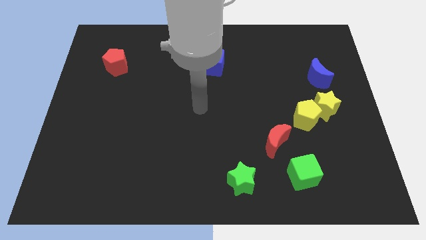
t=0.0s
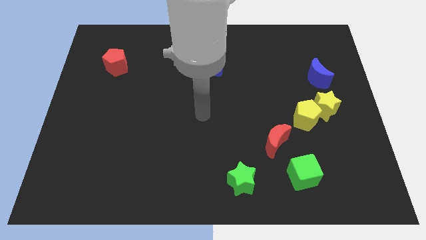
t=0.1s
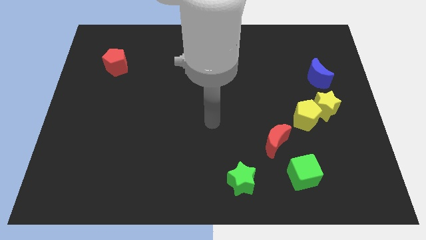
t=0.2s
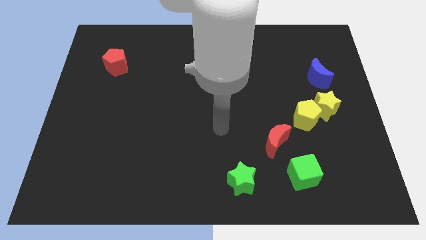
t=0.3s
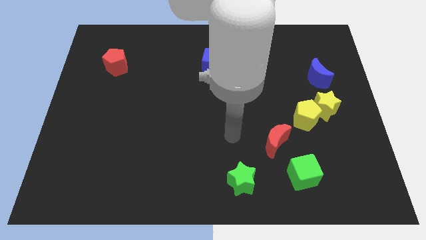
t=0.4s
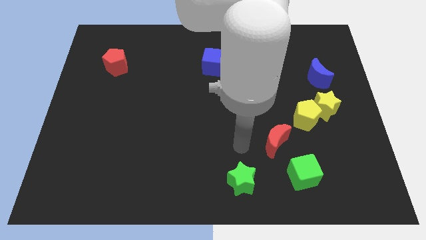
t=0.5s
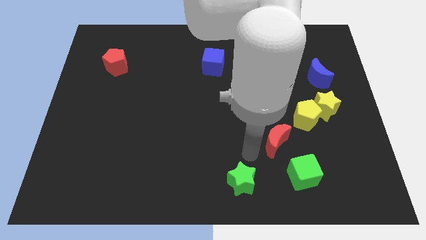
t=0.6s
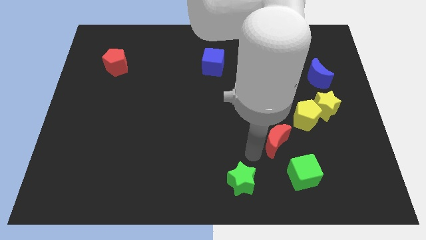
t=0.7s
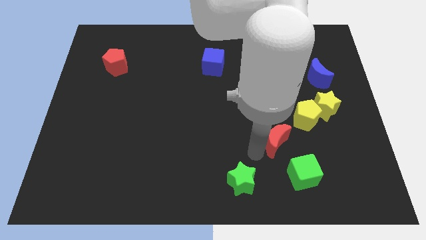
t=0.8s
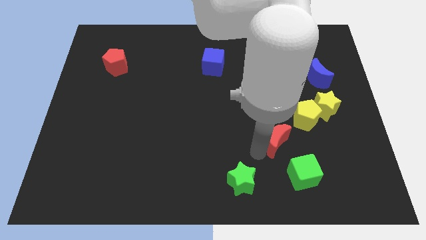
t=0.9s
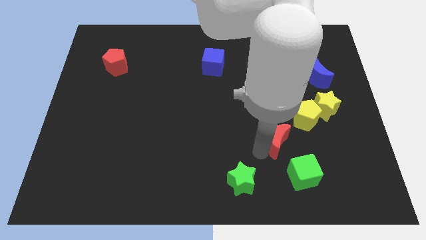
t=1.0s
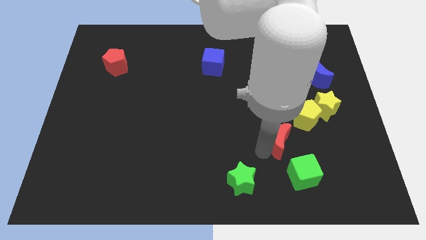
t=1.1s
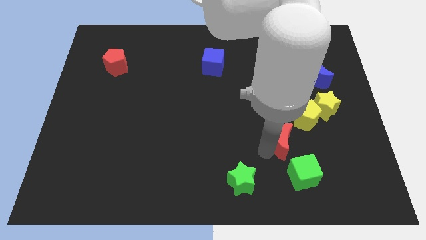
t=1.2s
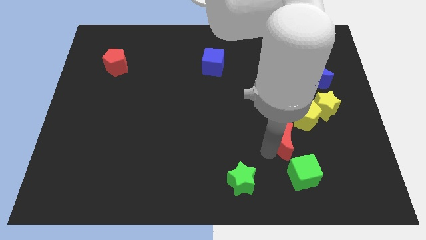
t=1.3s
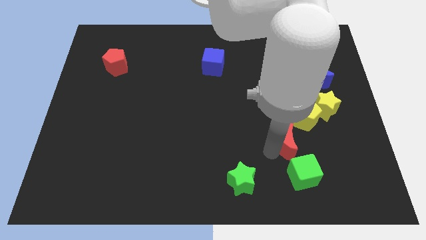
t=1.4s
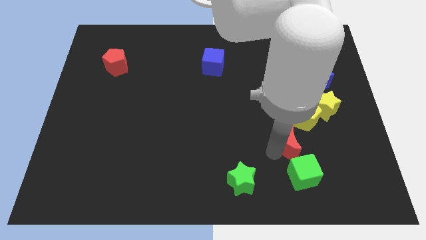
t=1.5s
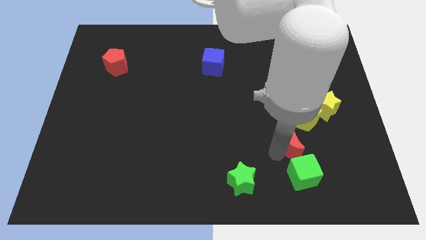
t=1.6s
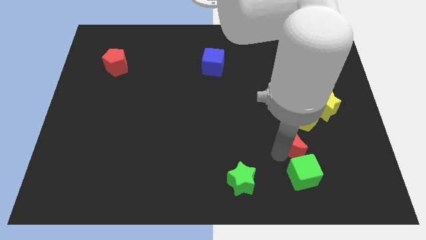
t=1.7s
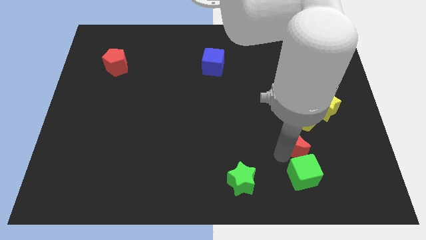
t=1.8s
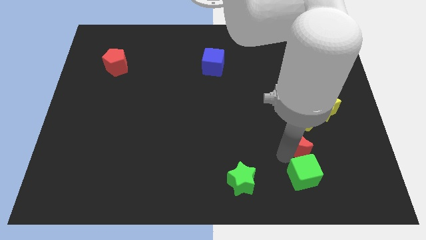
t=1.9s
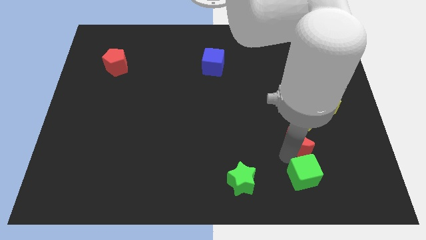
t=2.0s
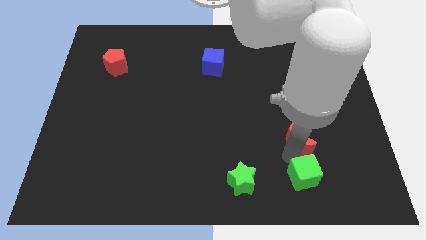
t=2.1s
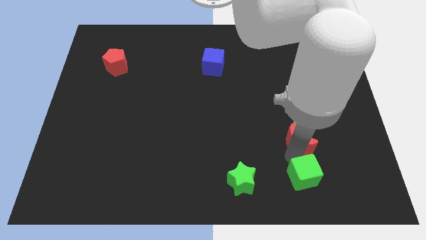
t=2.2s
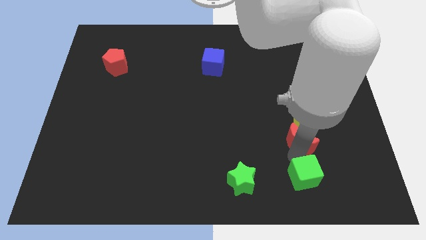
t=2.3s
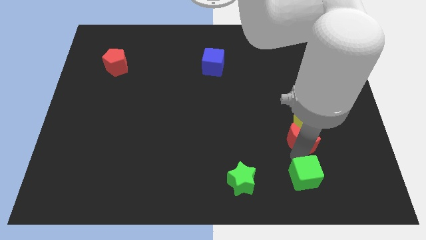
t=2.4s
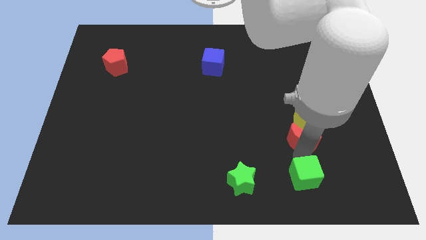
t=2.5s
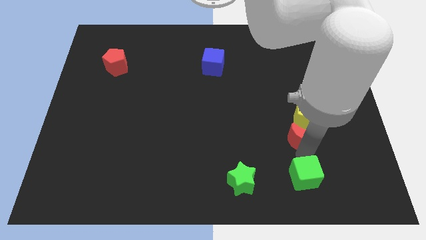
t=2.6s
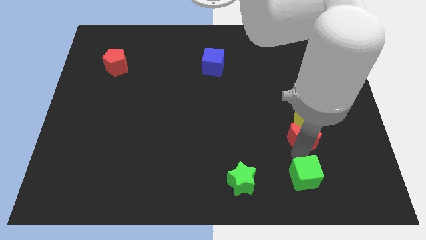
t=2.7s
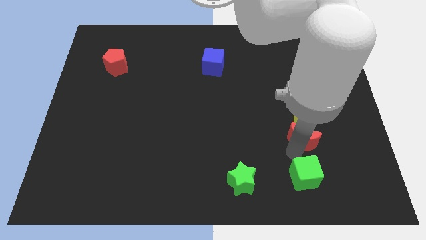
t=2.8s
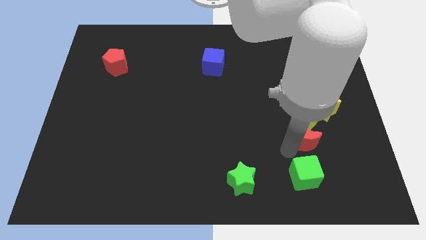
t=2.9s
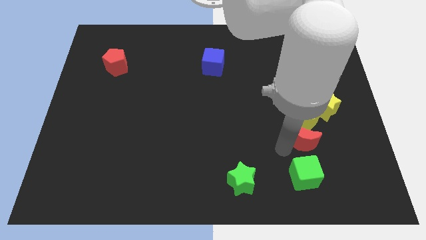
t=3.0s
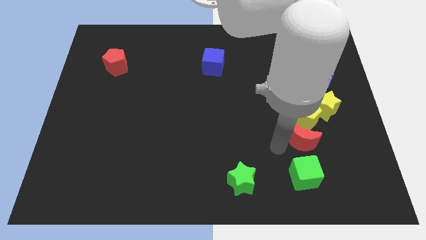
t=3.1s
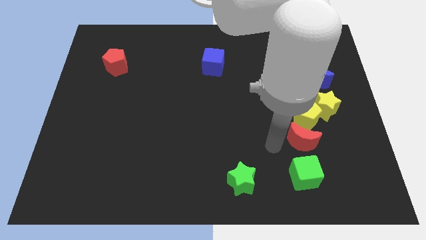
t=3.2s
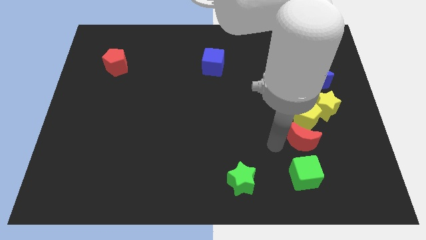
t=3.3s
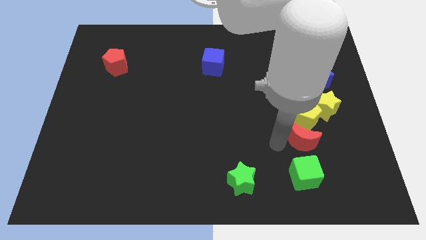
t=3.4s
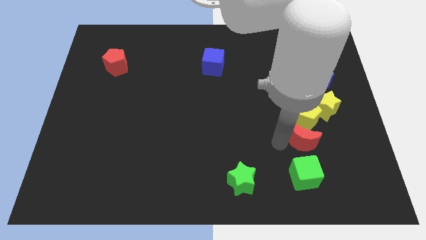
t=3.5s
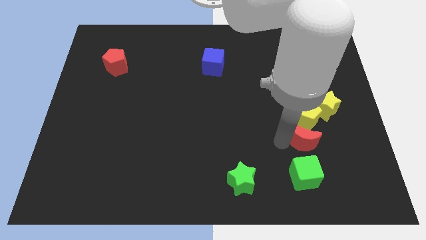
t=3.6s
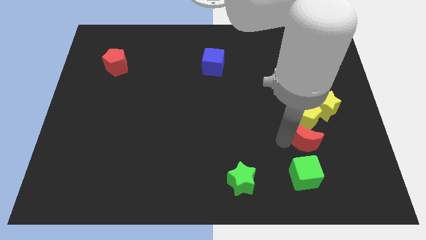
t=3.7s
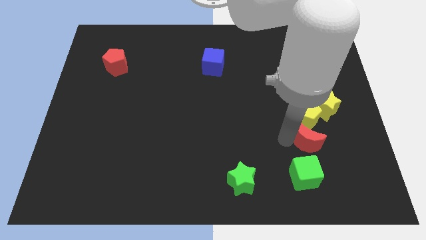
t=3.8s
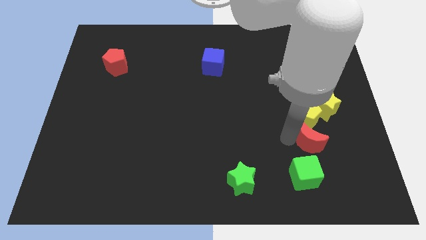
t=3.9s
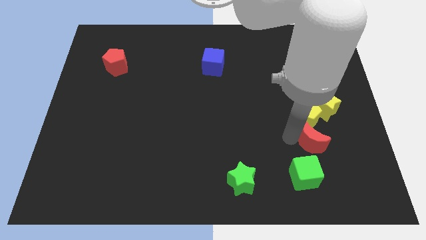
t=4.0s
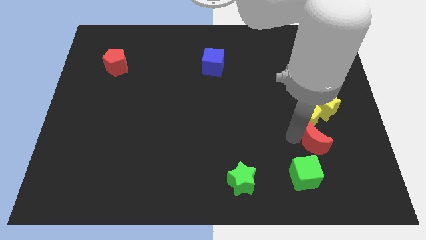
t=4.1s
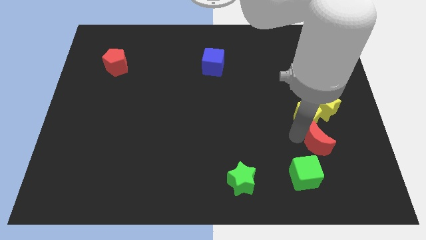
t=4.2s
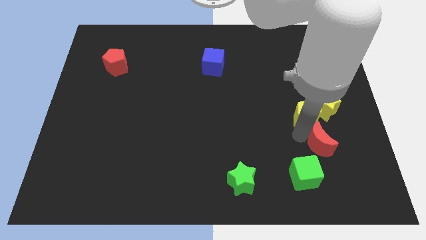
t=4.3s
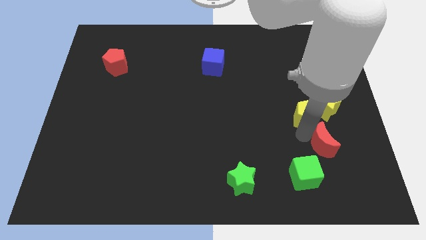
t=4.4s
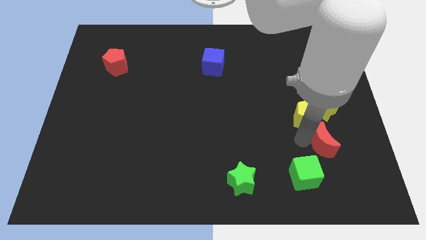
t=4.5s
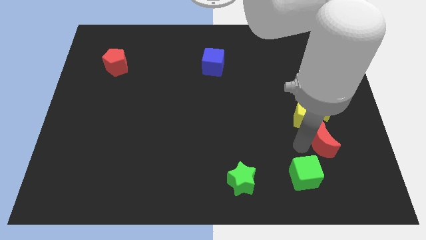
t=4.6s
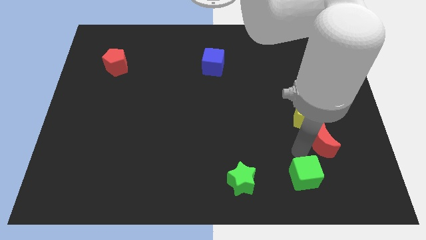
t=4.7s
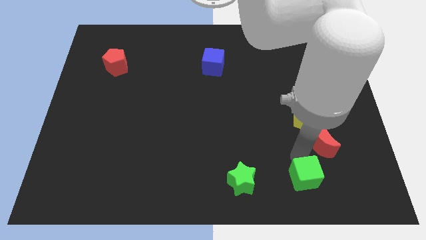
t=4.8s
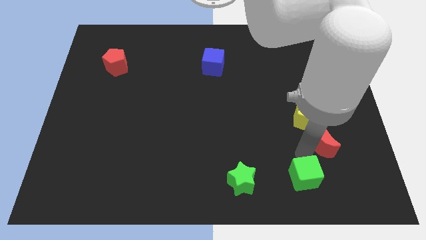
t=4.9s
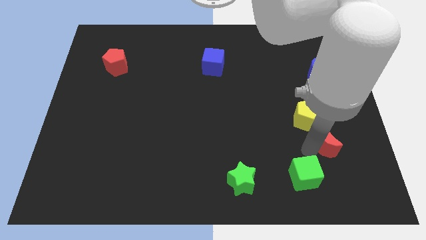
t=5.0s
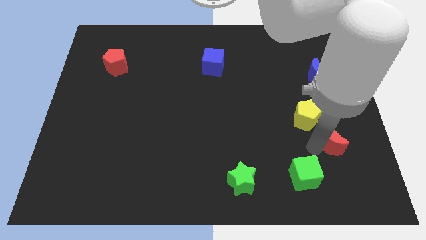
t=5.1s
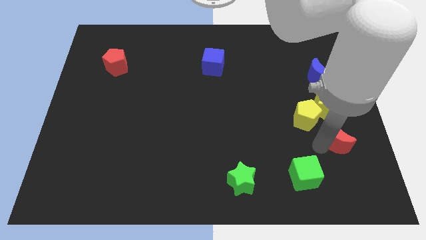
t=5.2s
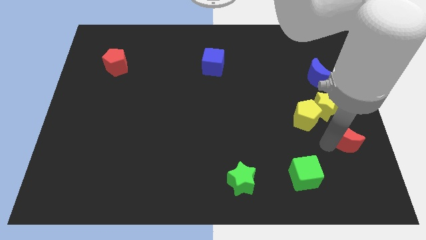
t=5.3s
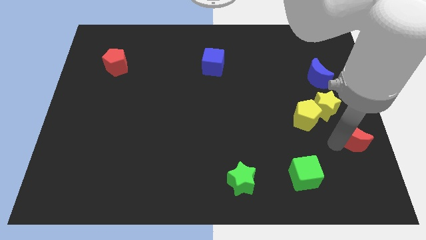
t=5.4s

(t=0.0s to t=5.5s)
slide the red moon to the right side of the board

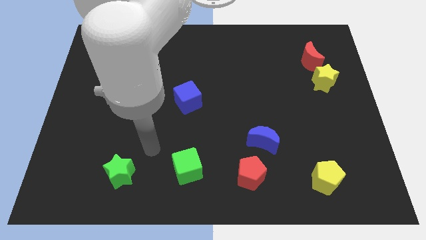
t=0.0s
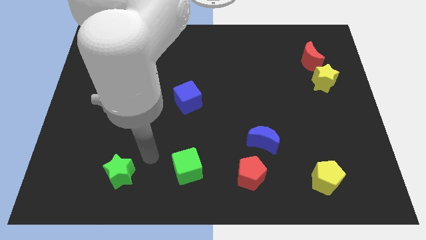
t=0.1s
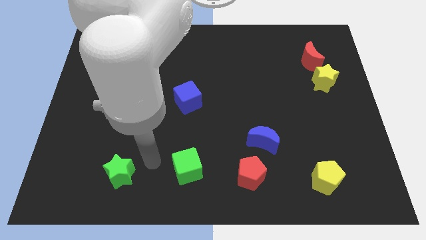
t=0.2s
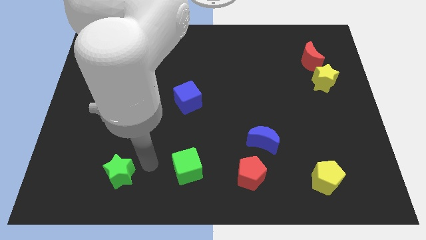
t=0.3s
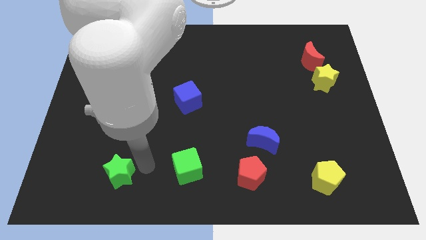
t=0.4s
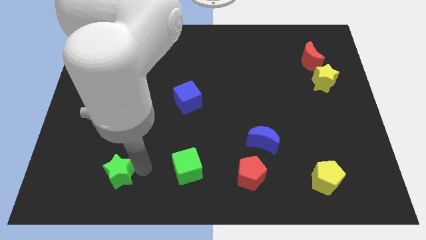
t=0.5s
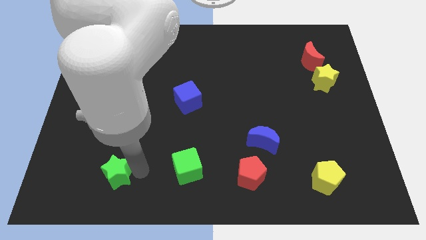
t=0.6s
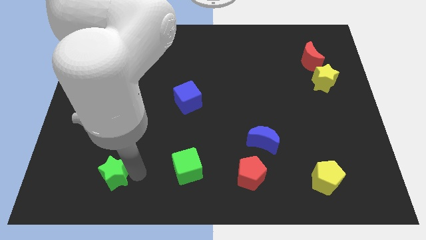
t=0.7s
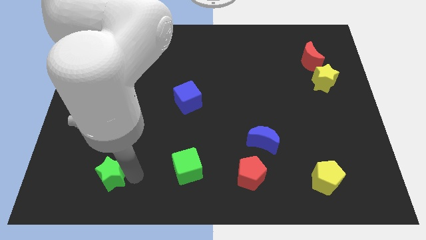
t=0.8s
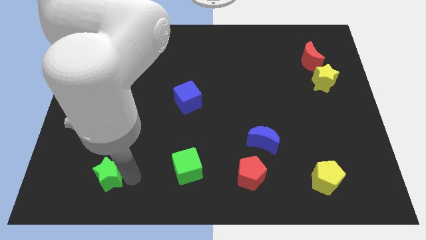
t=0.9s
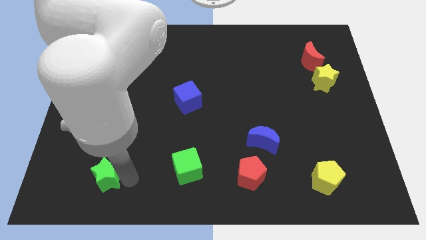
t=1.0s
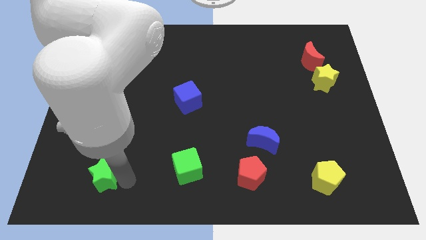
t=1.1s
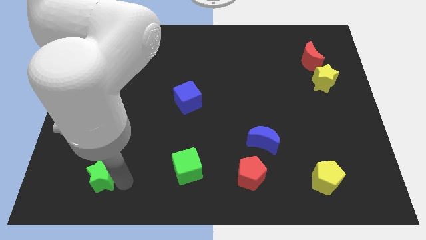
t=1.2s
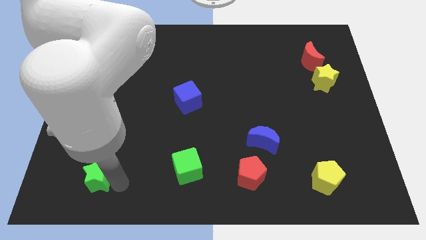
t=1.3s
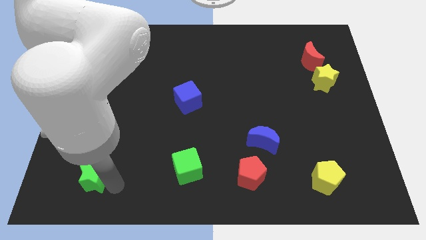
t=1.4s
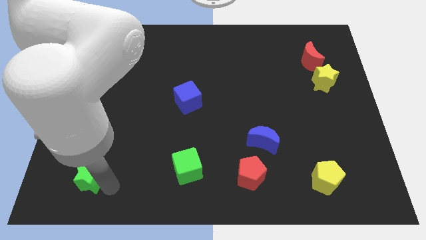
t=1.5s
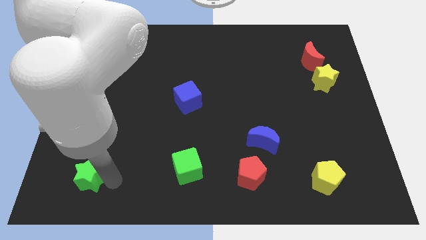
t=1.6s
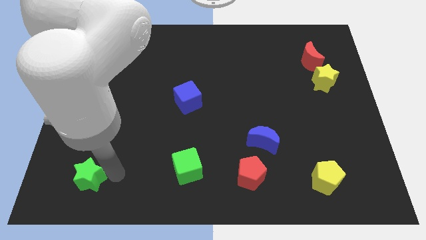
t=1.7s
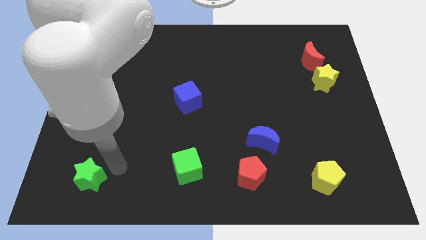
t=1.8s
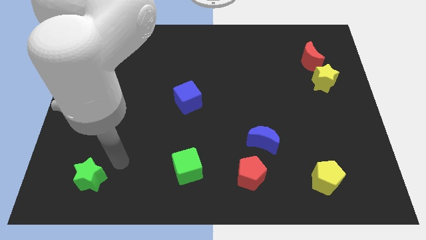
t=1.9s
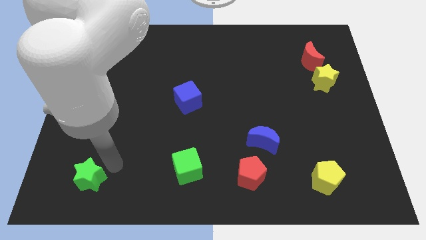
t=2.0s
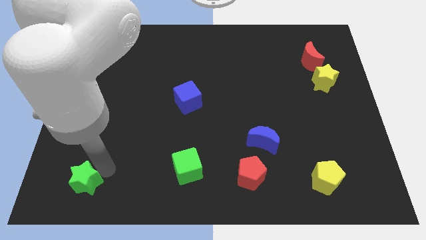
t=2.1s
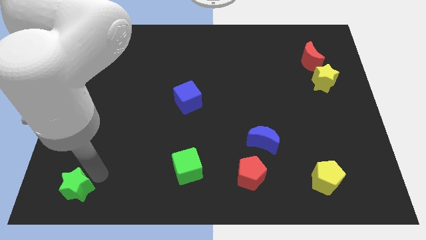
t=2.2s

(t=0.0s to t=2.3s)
push the green star to the bottom left
